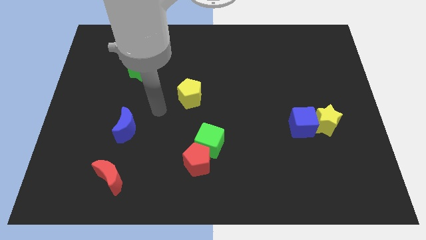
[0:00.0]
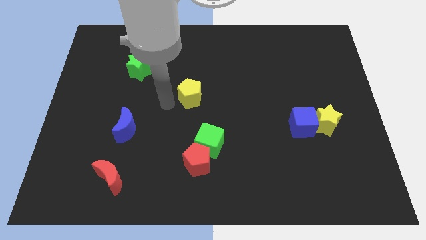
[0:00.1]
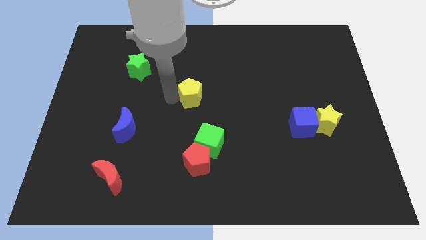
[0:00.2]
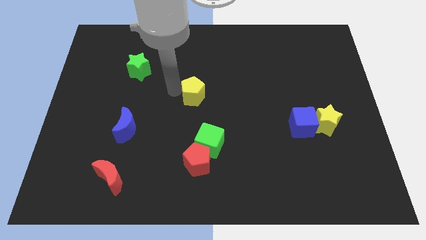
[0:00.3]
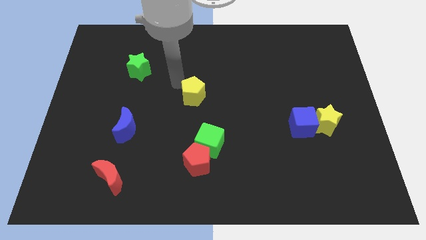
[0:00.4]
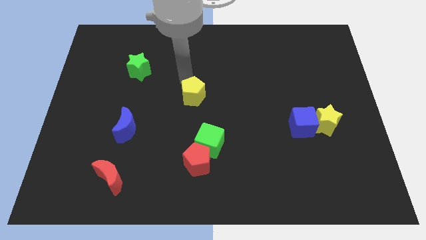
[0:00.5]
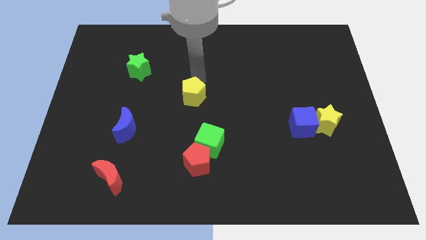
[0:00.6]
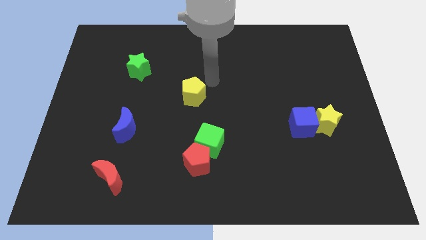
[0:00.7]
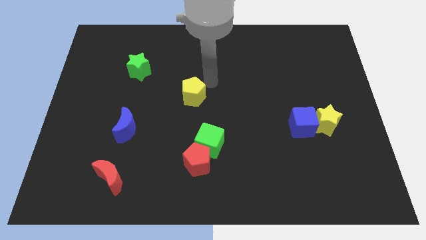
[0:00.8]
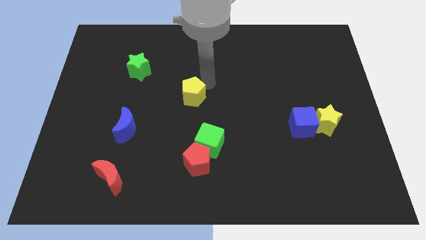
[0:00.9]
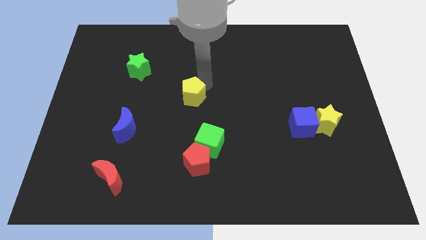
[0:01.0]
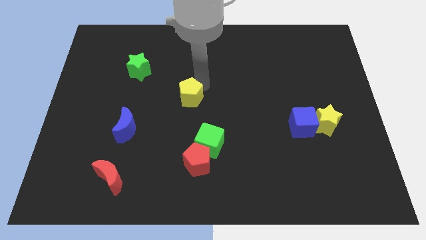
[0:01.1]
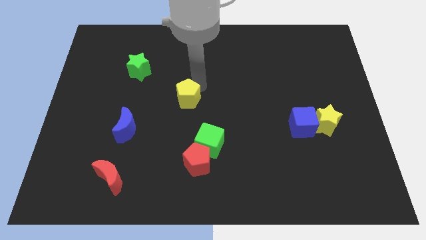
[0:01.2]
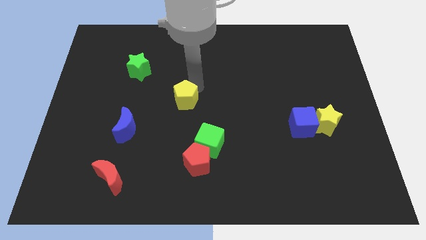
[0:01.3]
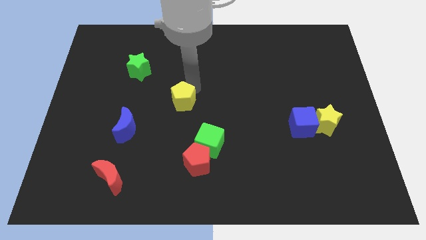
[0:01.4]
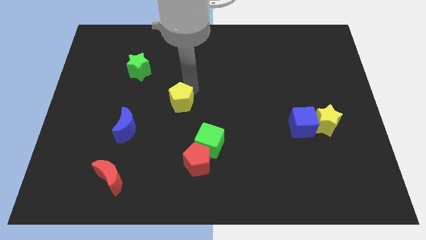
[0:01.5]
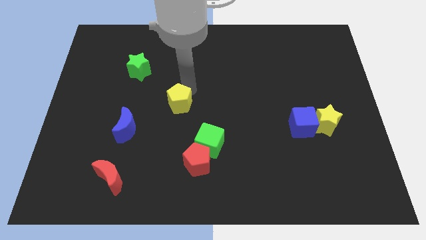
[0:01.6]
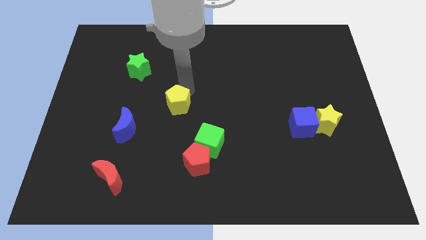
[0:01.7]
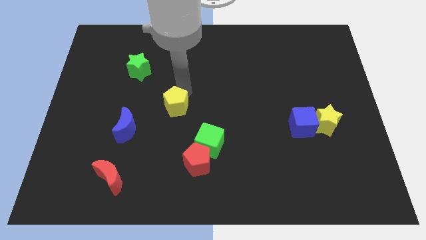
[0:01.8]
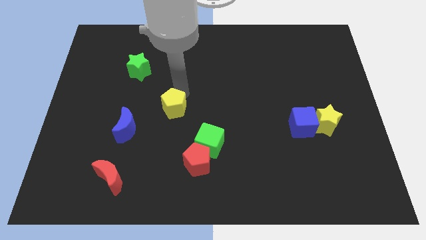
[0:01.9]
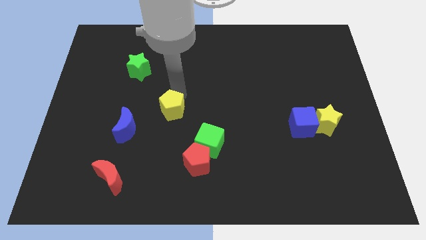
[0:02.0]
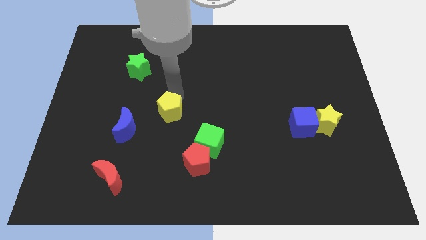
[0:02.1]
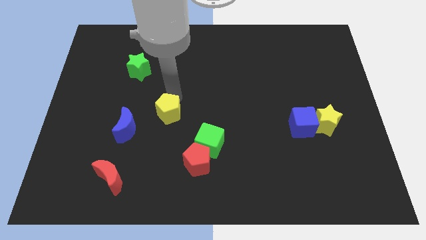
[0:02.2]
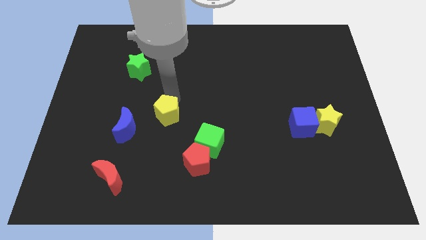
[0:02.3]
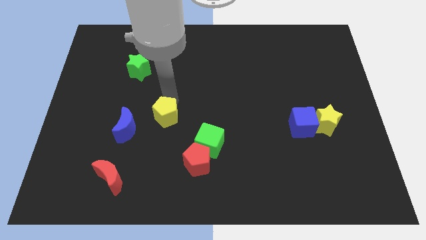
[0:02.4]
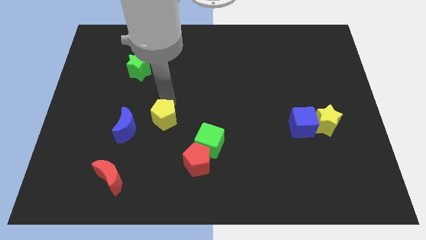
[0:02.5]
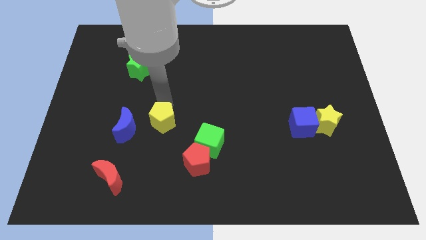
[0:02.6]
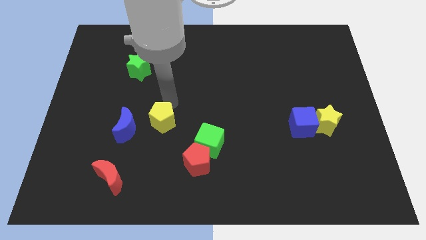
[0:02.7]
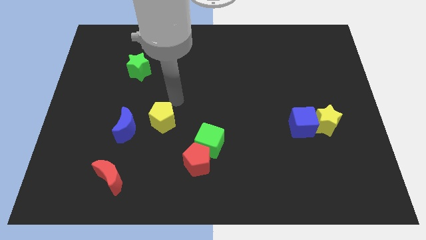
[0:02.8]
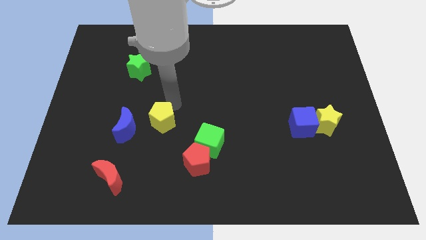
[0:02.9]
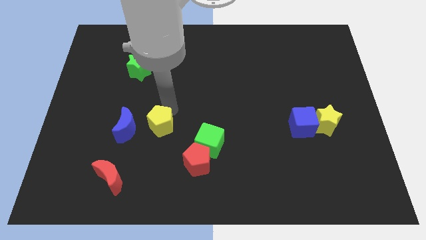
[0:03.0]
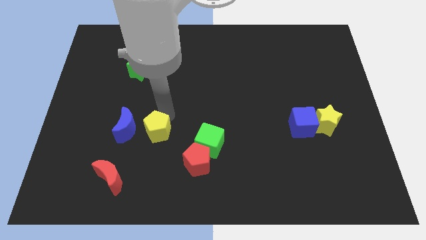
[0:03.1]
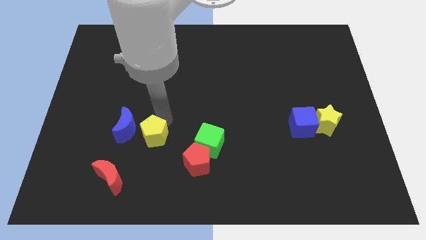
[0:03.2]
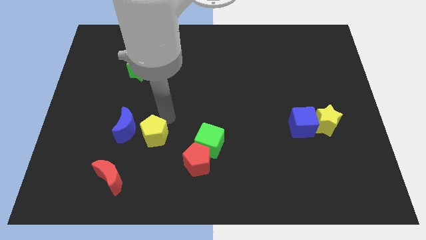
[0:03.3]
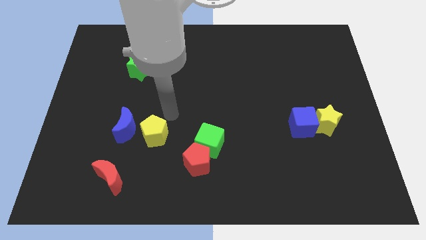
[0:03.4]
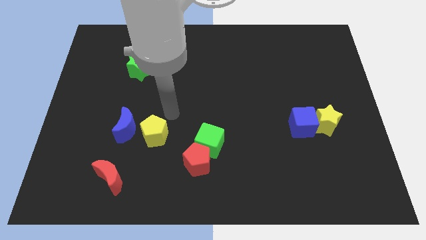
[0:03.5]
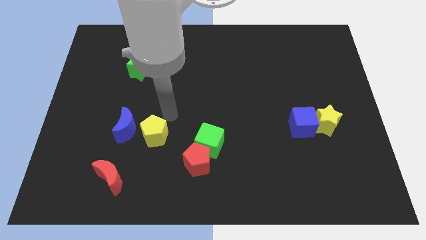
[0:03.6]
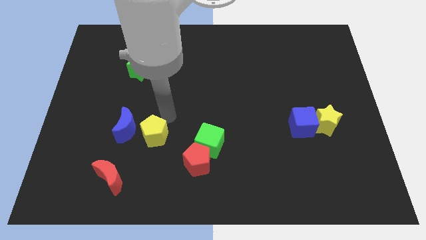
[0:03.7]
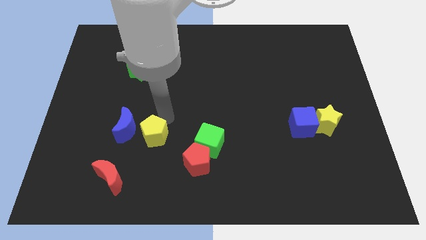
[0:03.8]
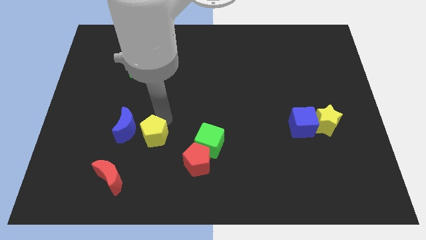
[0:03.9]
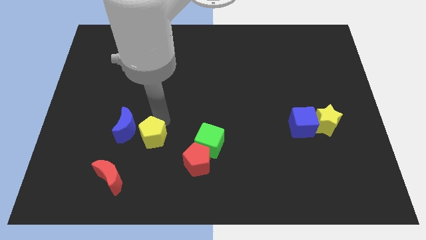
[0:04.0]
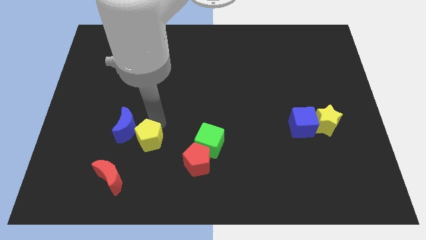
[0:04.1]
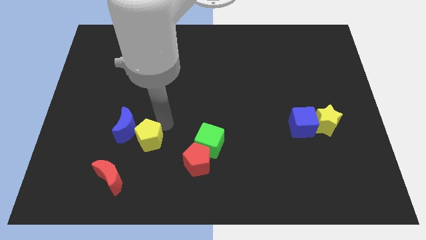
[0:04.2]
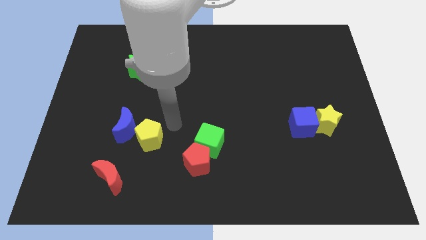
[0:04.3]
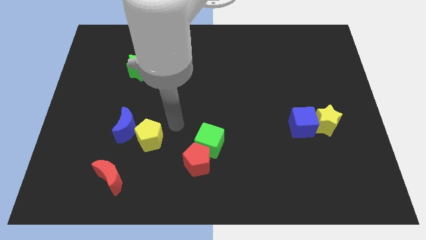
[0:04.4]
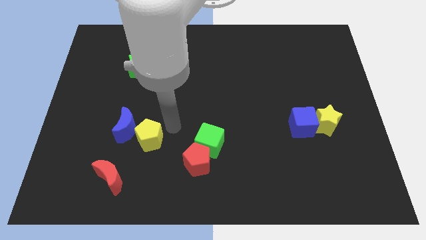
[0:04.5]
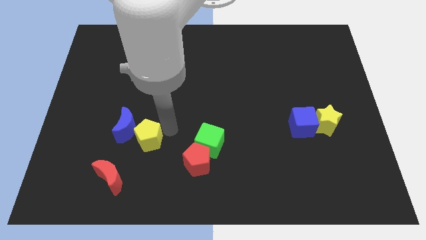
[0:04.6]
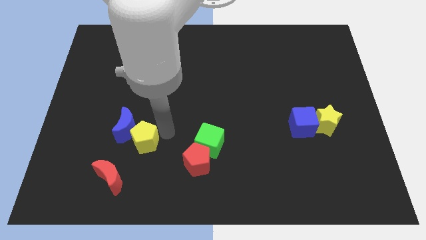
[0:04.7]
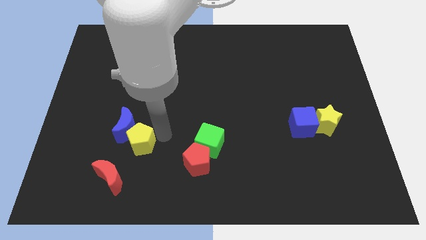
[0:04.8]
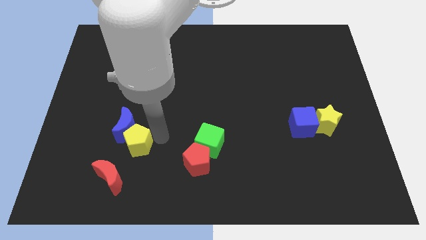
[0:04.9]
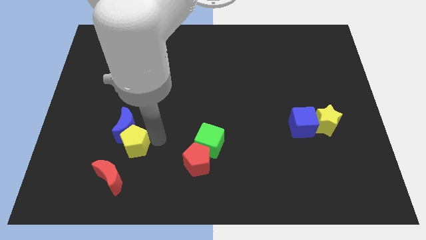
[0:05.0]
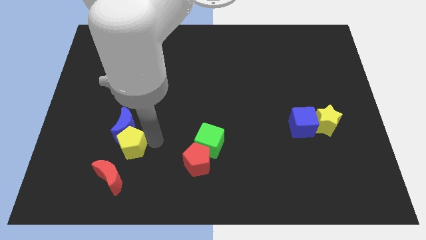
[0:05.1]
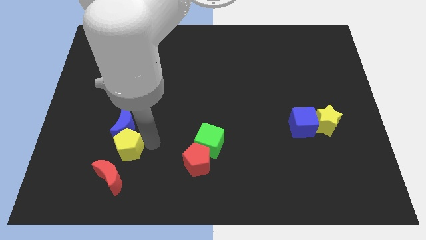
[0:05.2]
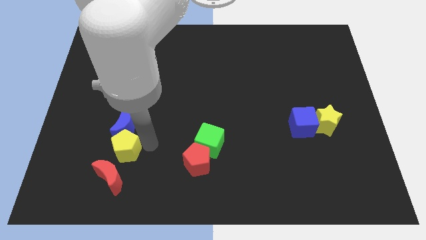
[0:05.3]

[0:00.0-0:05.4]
slide the yellow pentagon diagonally down and left

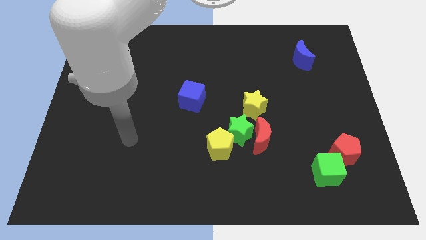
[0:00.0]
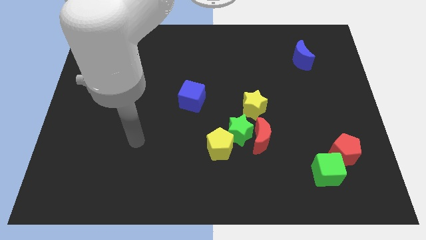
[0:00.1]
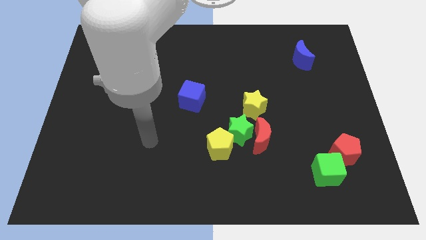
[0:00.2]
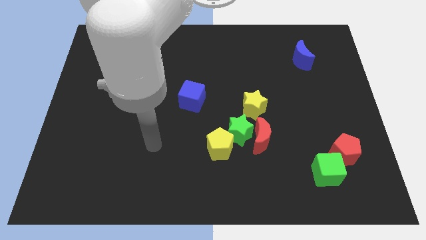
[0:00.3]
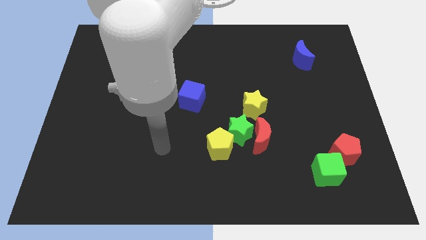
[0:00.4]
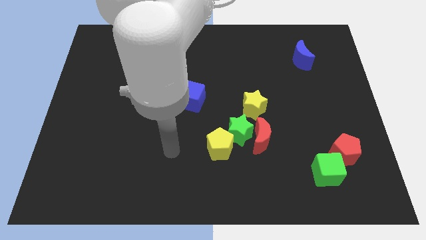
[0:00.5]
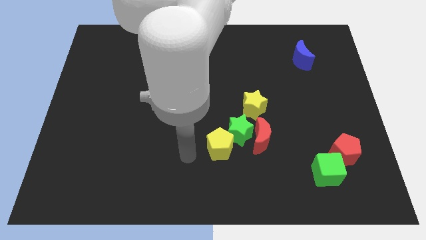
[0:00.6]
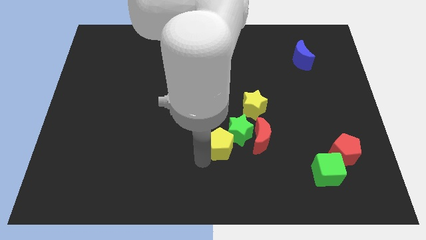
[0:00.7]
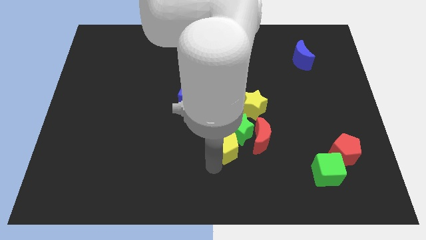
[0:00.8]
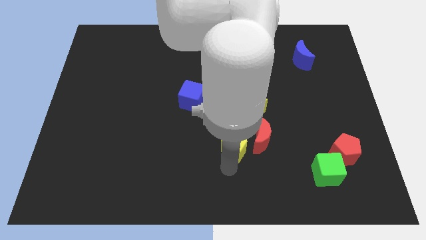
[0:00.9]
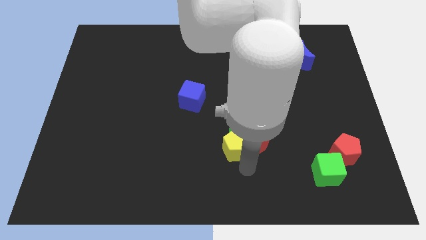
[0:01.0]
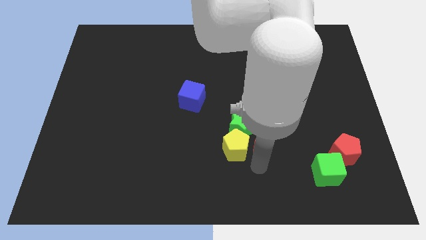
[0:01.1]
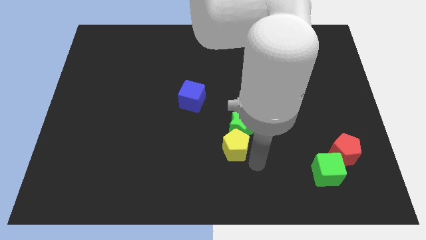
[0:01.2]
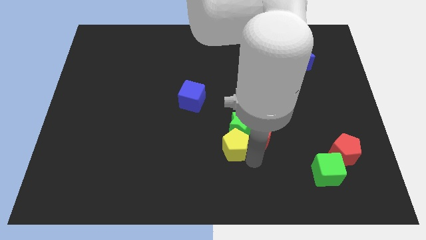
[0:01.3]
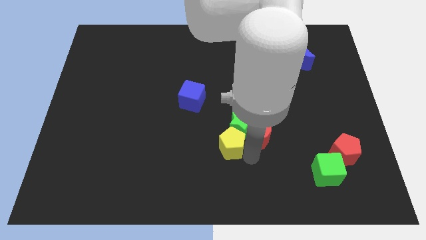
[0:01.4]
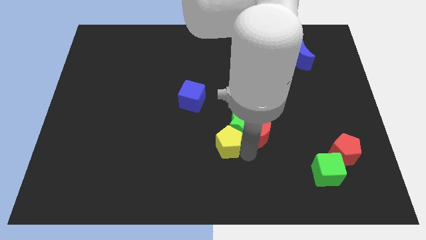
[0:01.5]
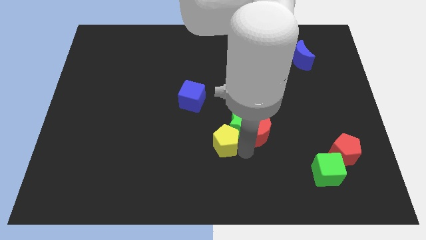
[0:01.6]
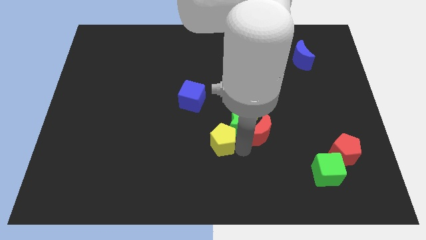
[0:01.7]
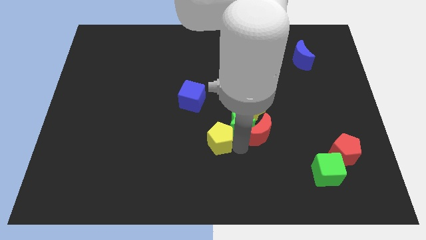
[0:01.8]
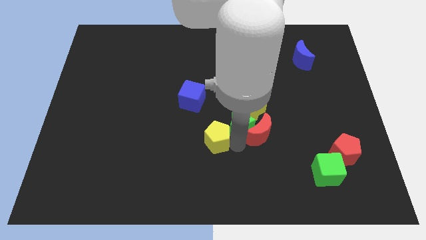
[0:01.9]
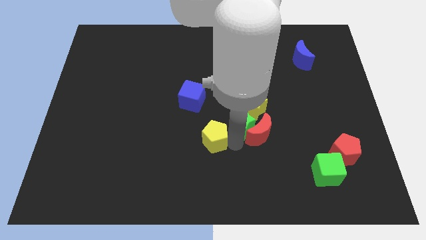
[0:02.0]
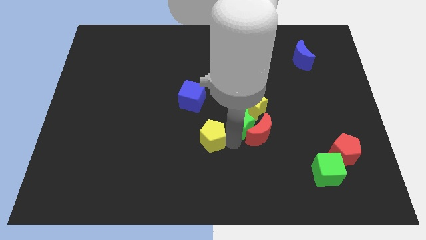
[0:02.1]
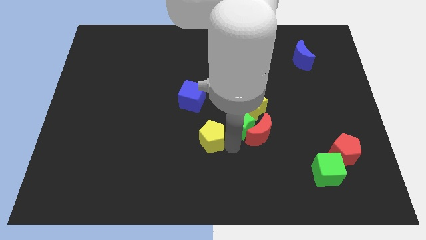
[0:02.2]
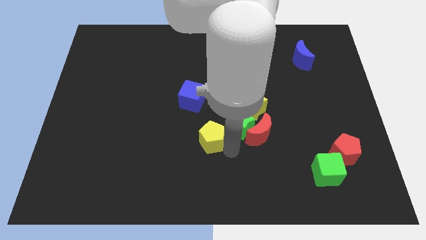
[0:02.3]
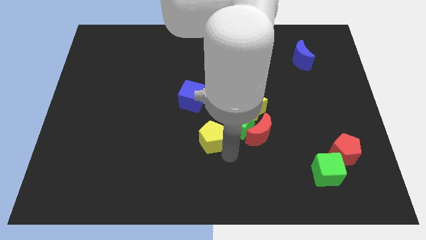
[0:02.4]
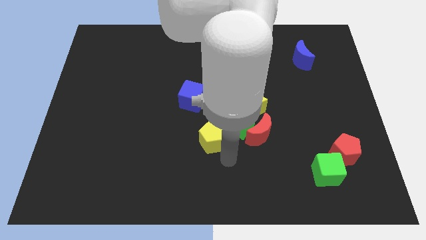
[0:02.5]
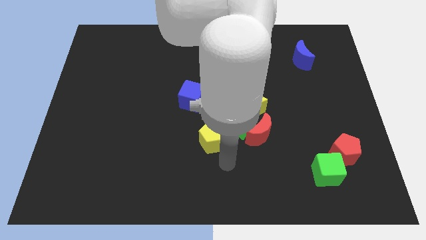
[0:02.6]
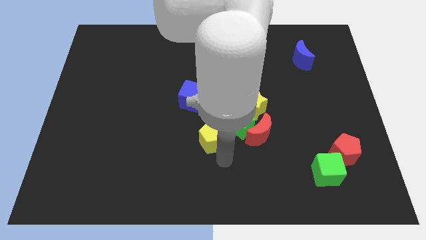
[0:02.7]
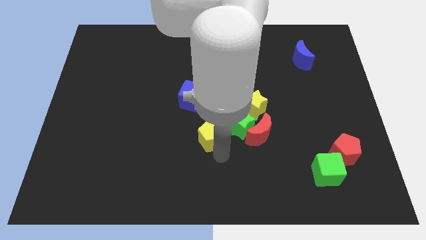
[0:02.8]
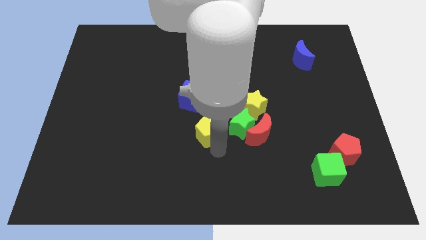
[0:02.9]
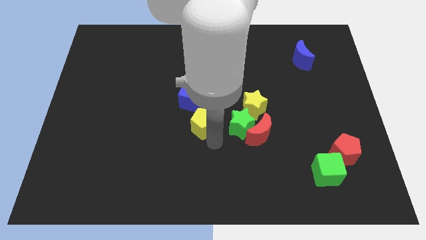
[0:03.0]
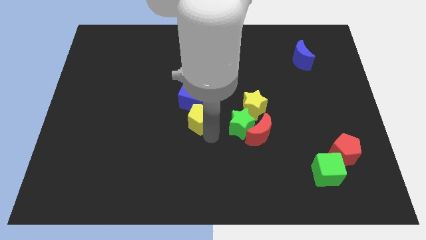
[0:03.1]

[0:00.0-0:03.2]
slide the yellow pentagon a bit up and left
